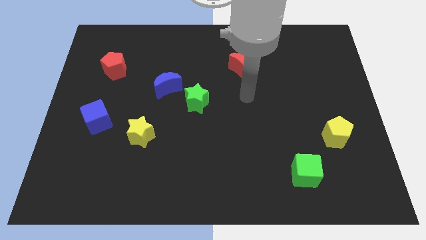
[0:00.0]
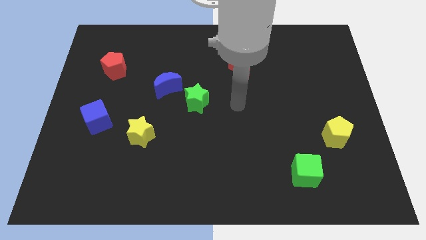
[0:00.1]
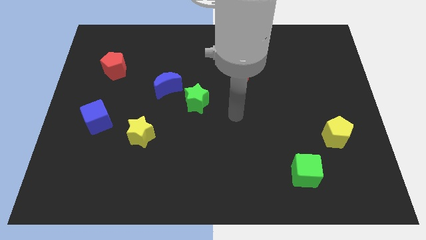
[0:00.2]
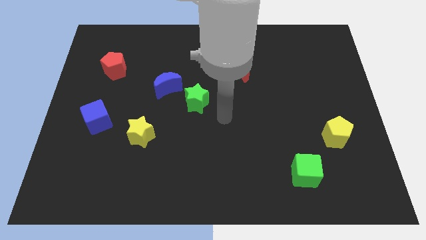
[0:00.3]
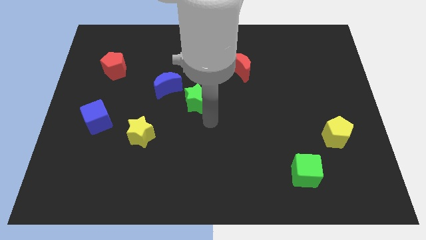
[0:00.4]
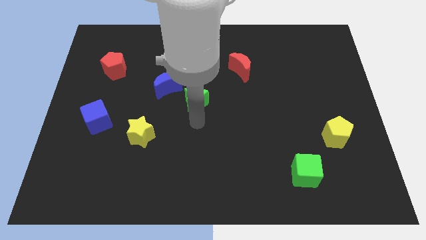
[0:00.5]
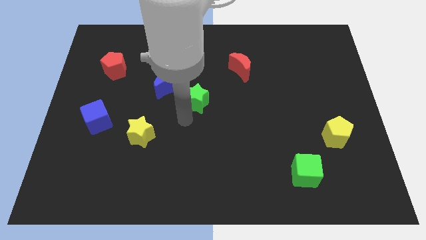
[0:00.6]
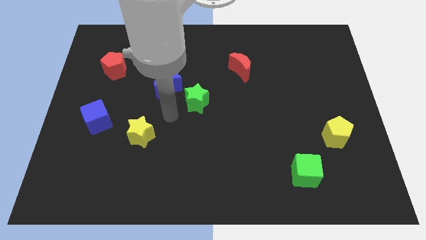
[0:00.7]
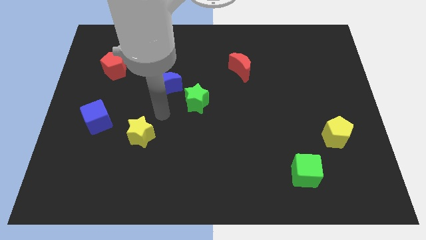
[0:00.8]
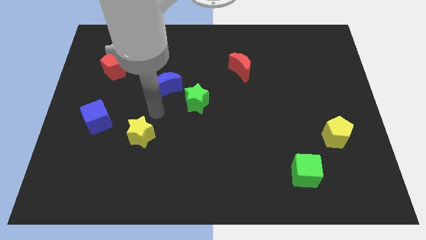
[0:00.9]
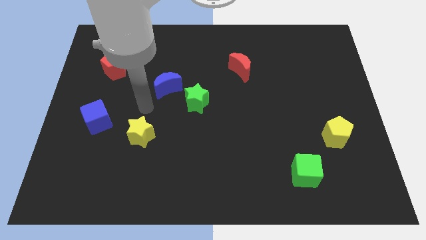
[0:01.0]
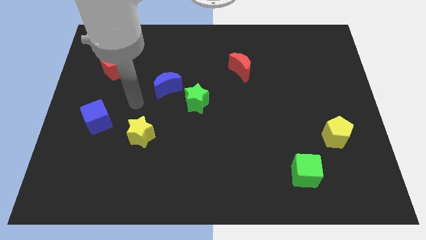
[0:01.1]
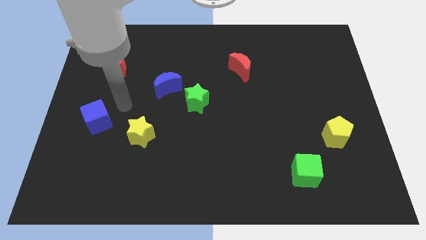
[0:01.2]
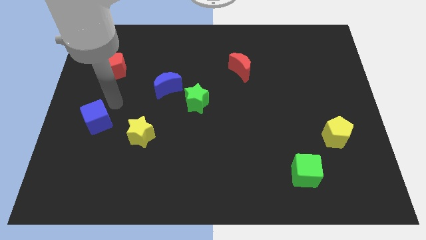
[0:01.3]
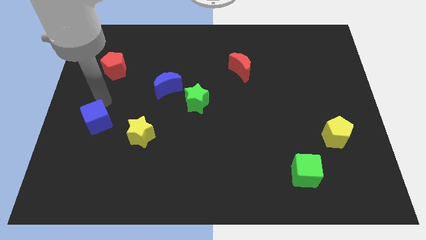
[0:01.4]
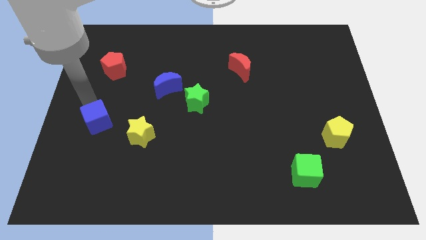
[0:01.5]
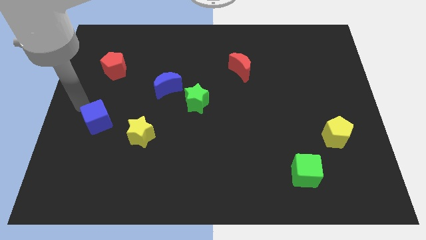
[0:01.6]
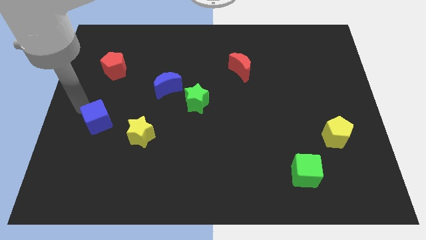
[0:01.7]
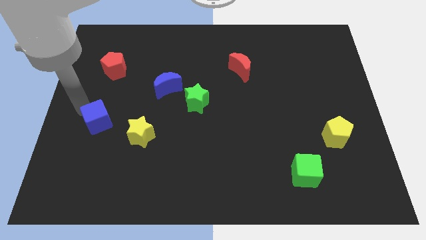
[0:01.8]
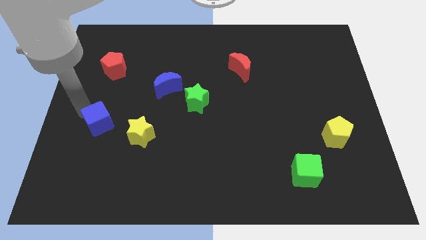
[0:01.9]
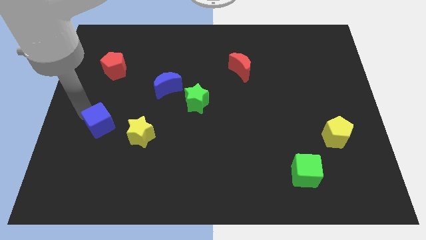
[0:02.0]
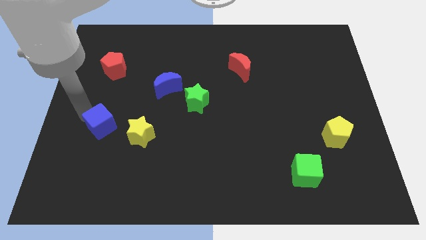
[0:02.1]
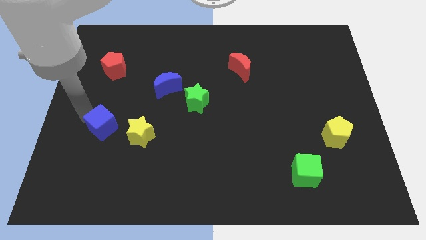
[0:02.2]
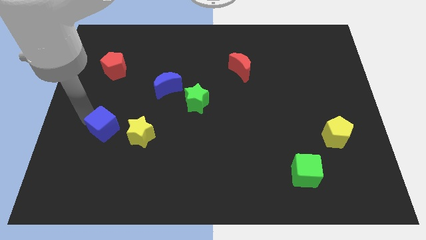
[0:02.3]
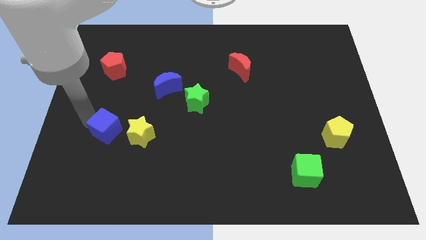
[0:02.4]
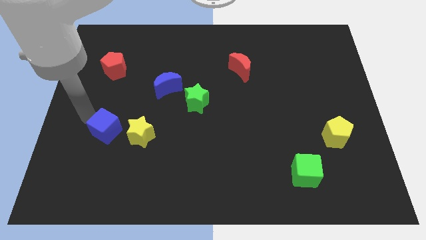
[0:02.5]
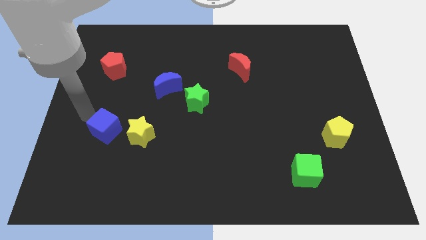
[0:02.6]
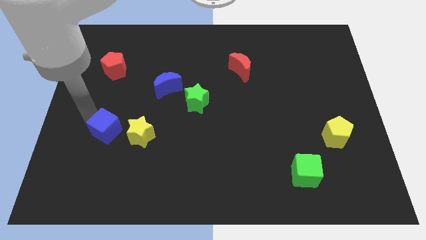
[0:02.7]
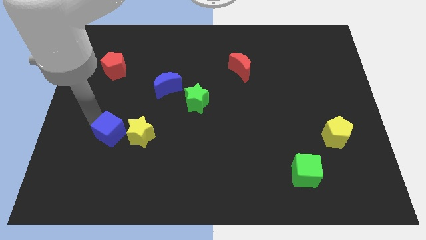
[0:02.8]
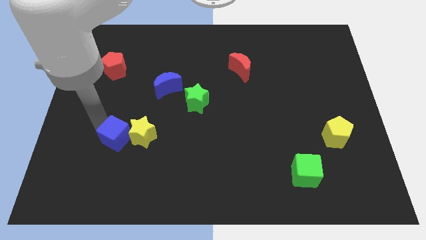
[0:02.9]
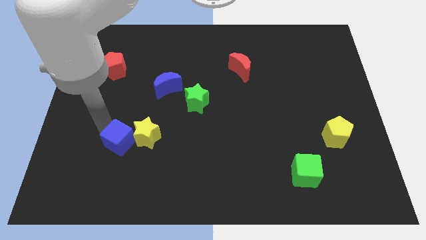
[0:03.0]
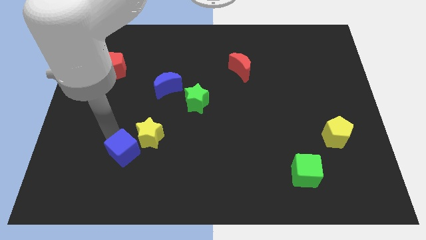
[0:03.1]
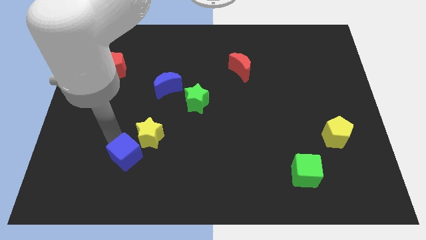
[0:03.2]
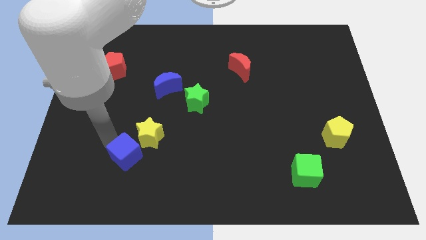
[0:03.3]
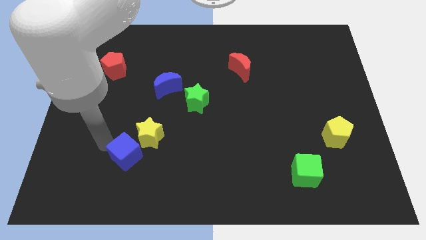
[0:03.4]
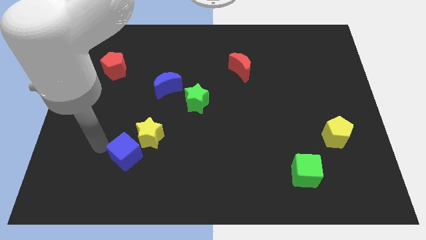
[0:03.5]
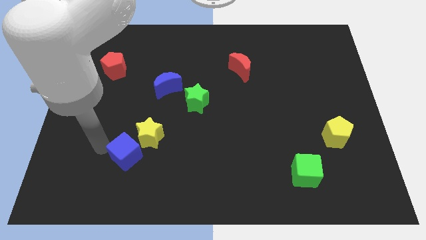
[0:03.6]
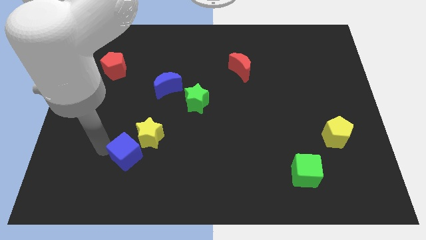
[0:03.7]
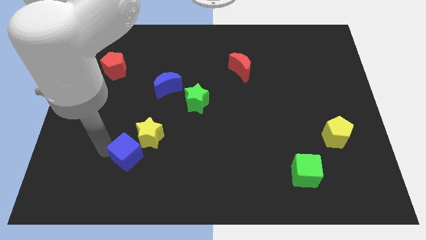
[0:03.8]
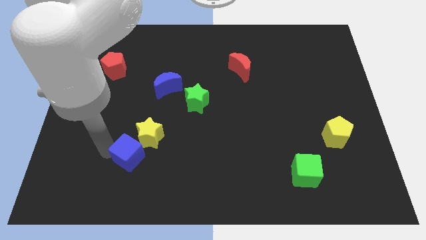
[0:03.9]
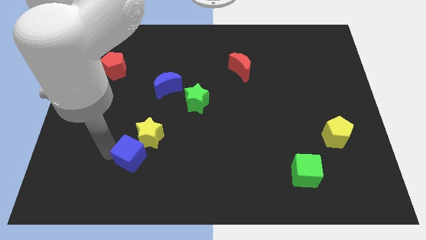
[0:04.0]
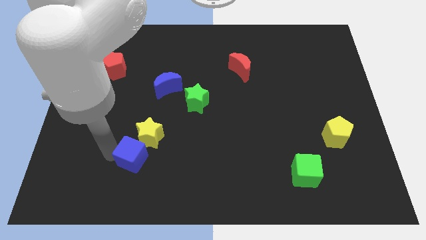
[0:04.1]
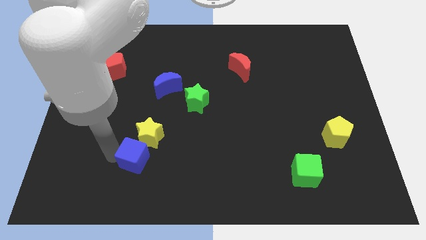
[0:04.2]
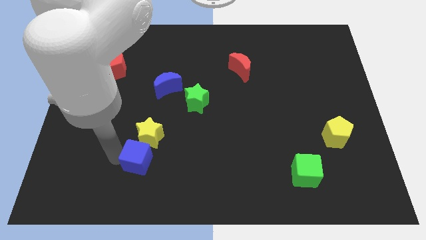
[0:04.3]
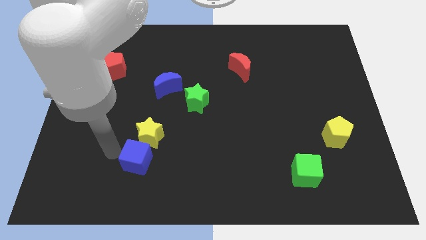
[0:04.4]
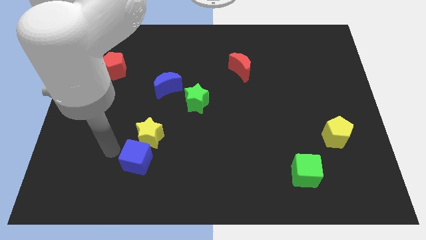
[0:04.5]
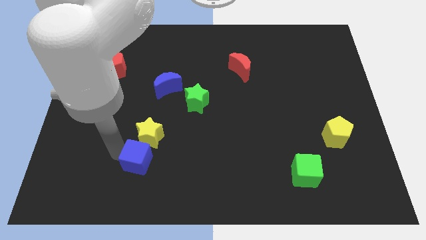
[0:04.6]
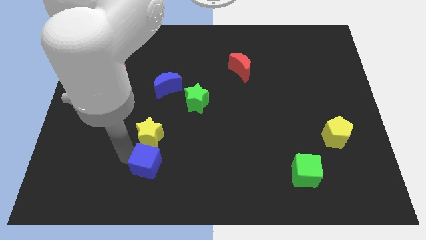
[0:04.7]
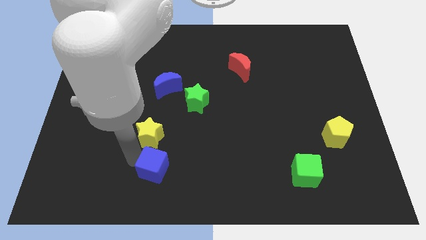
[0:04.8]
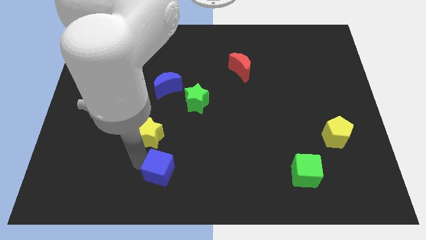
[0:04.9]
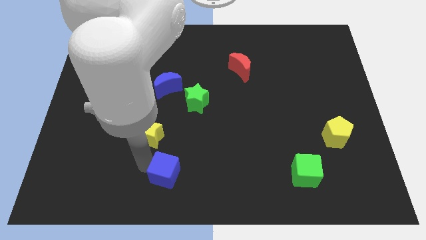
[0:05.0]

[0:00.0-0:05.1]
push the blue cube to the bottom side

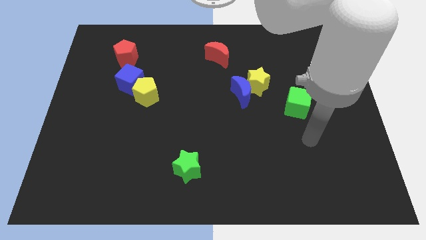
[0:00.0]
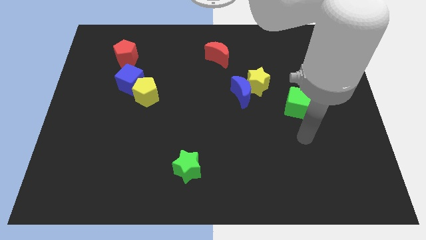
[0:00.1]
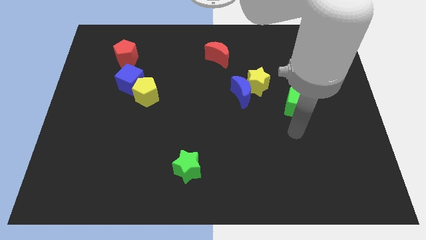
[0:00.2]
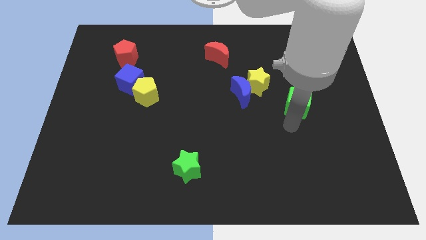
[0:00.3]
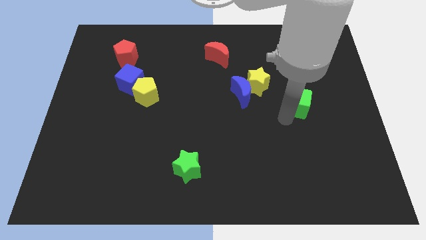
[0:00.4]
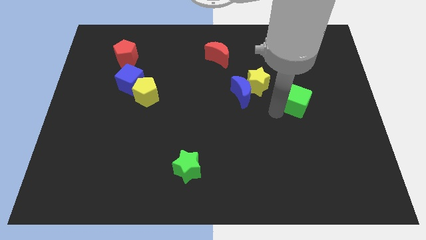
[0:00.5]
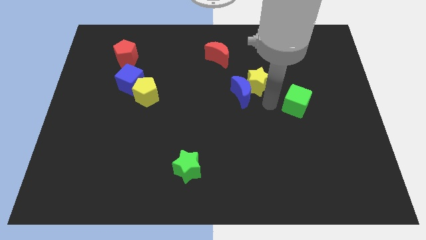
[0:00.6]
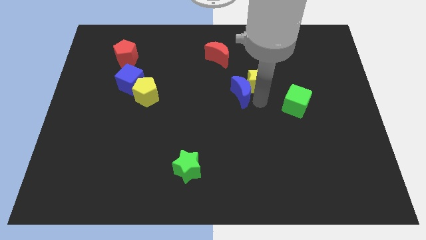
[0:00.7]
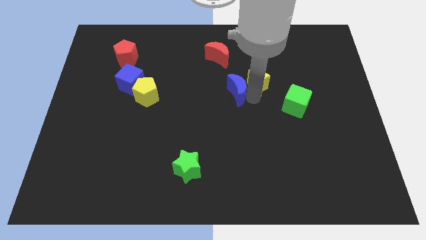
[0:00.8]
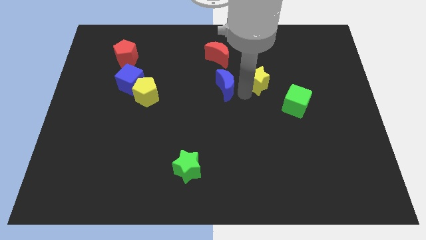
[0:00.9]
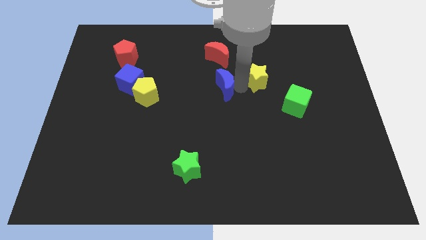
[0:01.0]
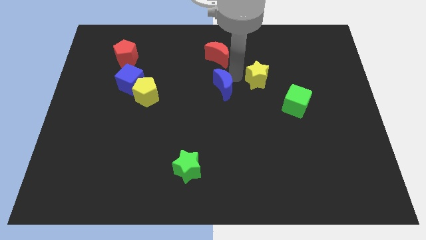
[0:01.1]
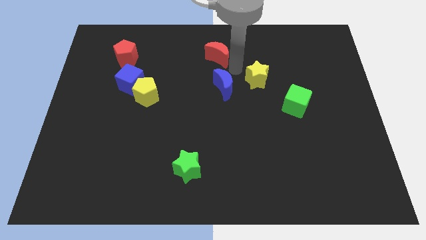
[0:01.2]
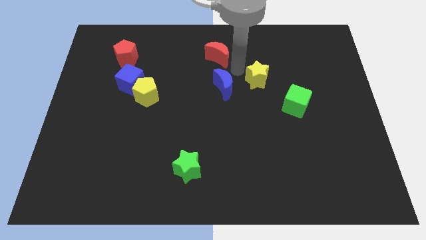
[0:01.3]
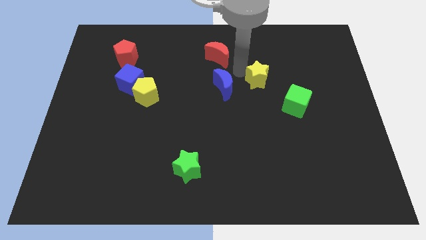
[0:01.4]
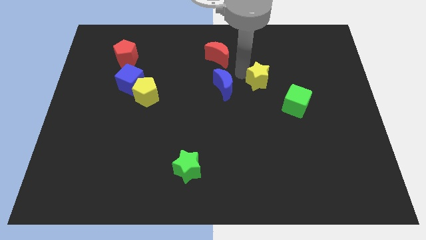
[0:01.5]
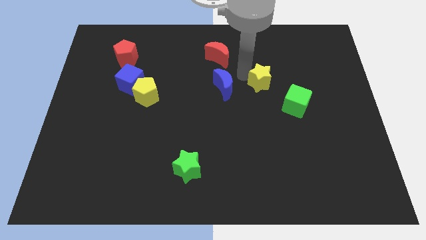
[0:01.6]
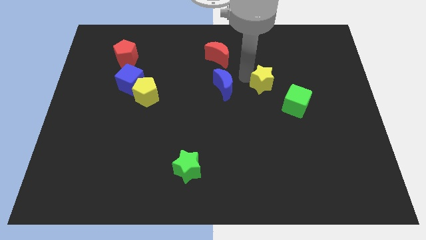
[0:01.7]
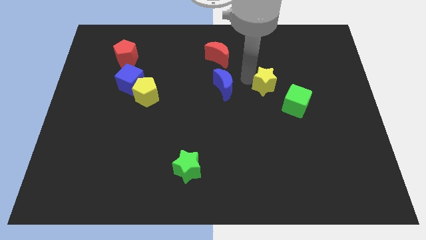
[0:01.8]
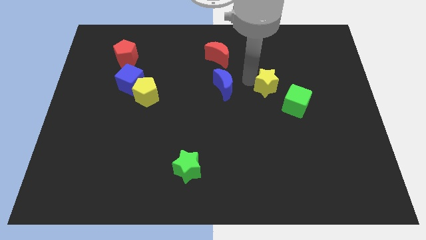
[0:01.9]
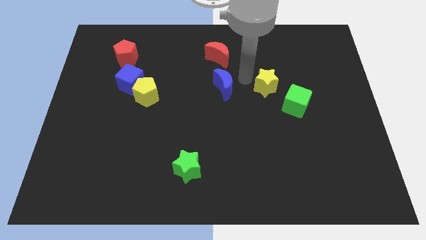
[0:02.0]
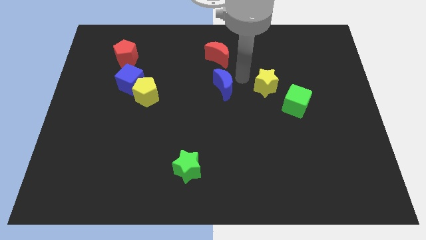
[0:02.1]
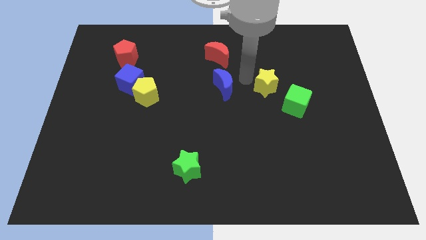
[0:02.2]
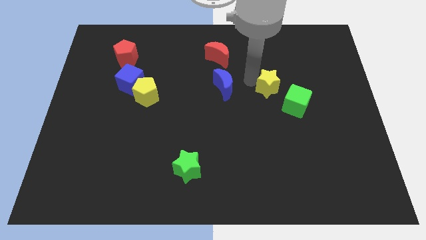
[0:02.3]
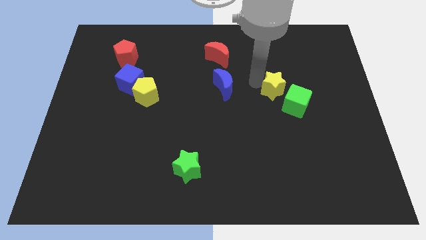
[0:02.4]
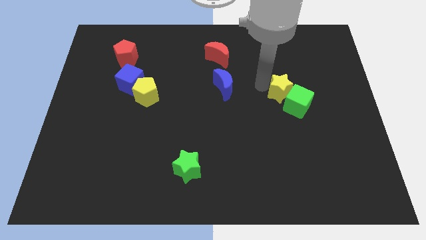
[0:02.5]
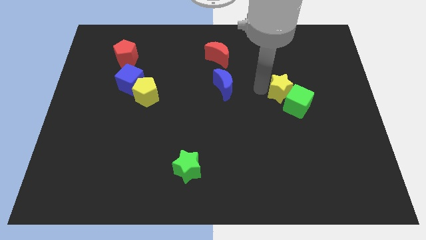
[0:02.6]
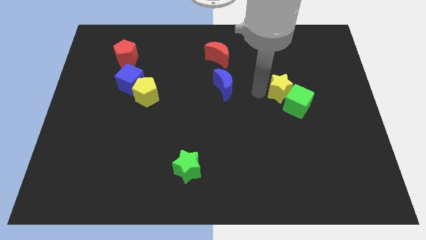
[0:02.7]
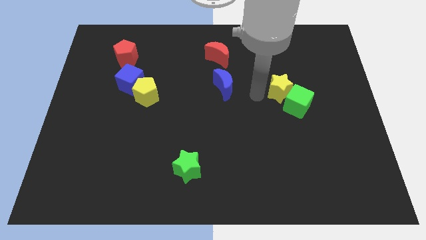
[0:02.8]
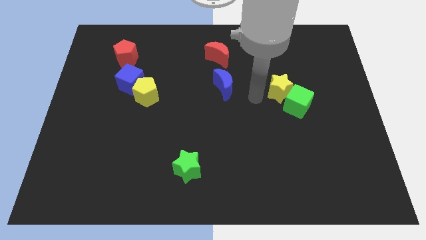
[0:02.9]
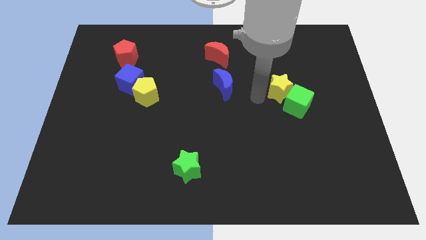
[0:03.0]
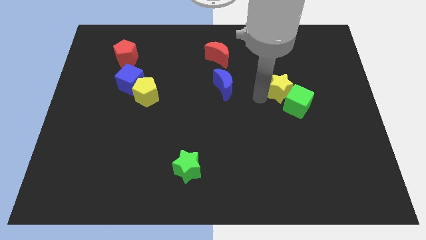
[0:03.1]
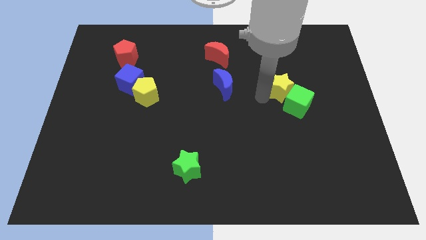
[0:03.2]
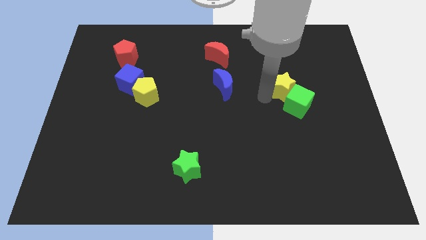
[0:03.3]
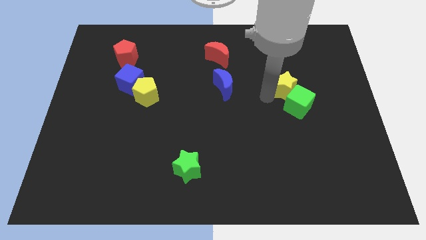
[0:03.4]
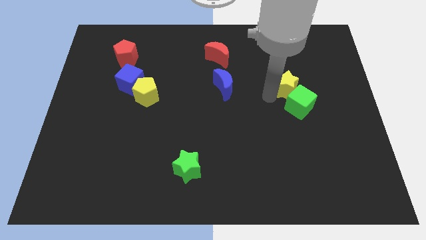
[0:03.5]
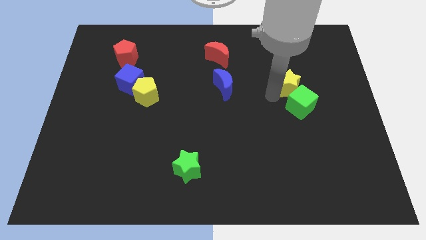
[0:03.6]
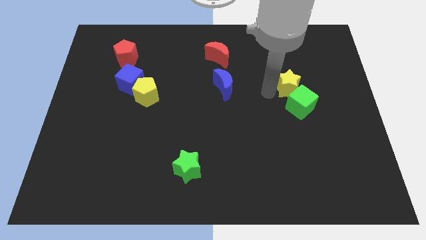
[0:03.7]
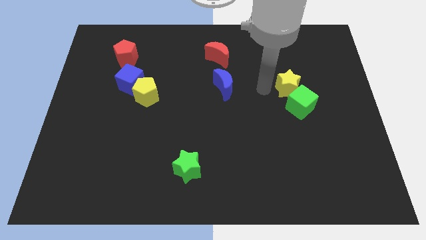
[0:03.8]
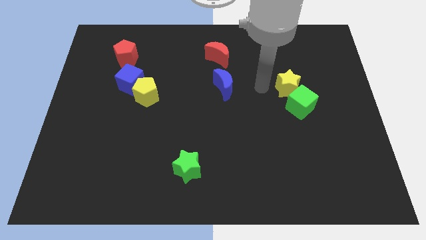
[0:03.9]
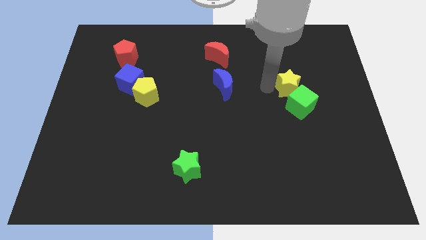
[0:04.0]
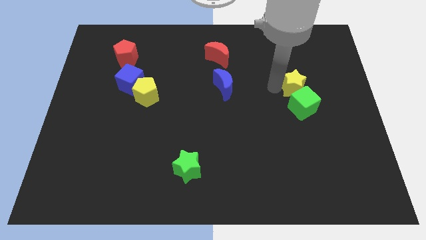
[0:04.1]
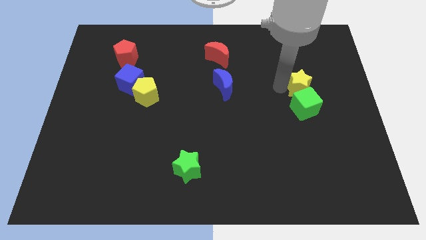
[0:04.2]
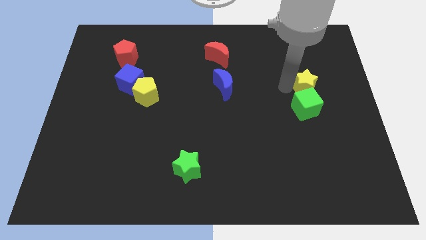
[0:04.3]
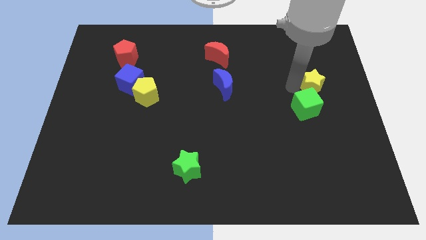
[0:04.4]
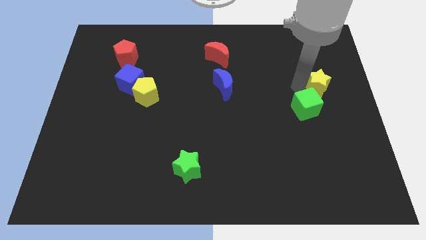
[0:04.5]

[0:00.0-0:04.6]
push the yellow star to the right side of the board
